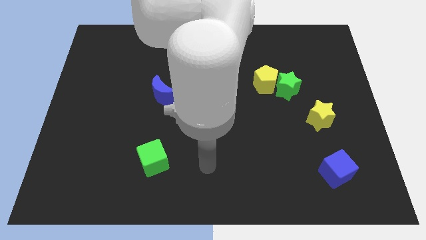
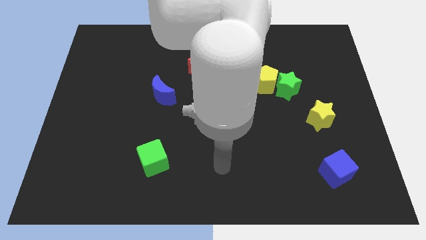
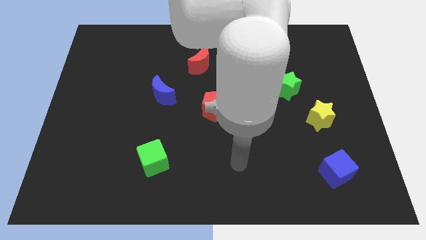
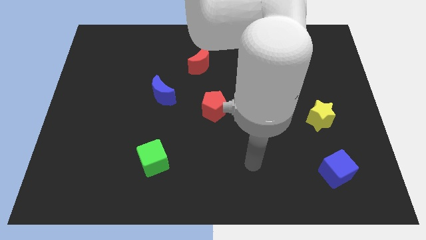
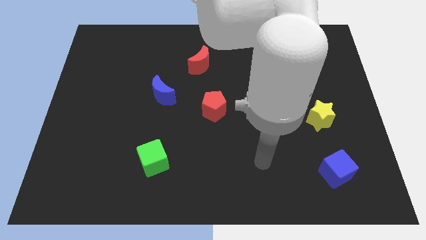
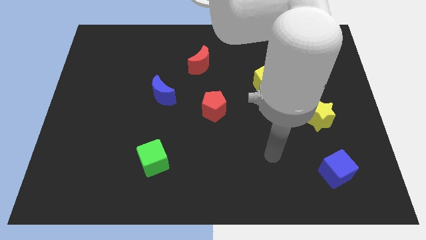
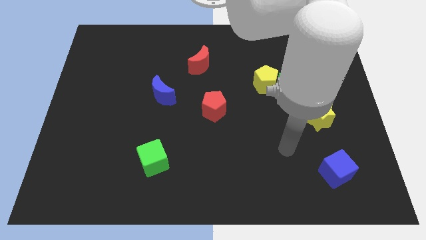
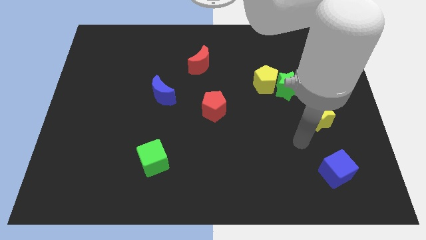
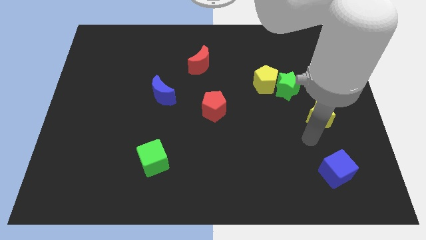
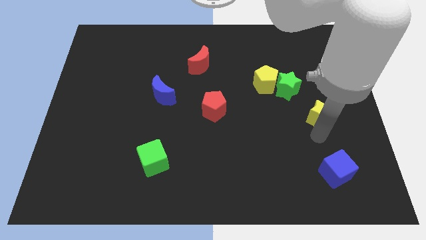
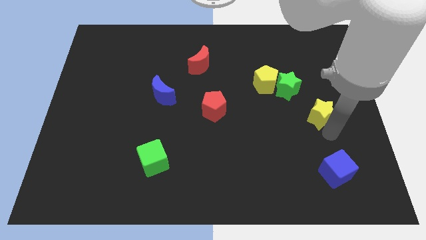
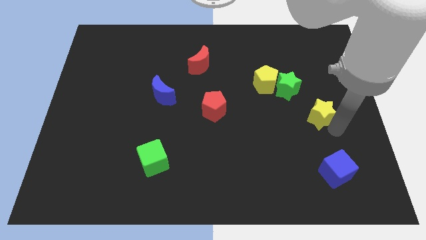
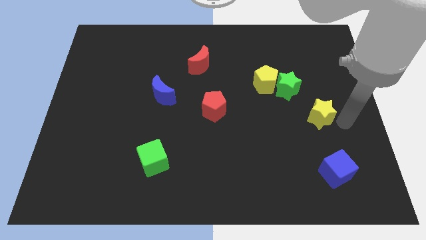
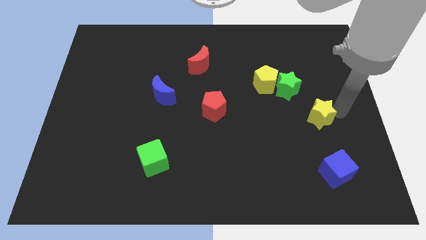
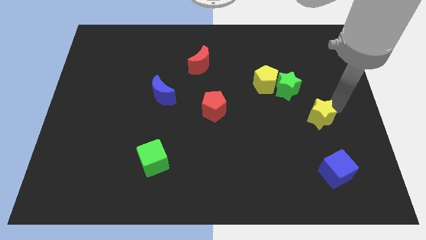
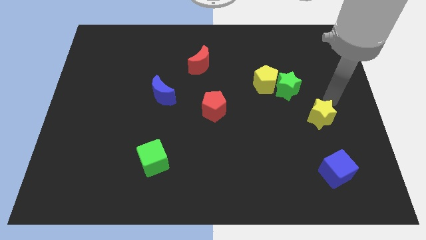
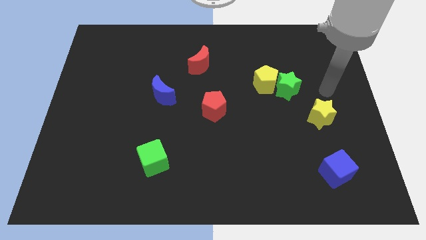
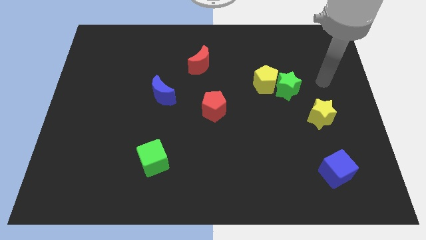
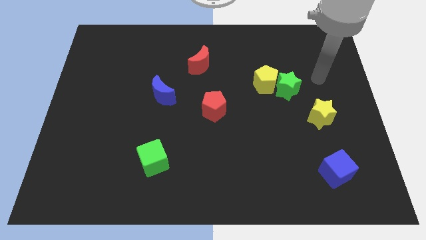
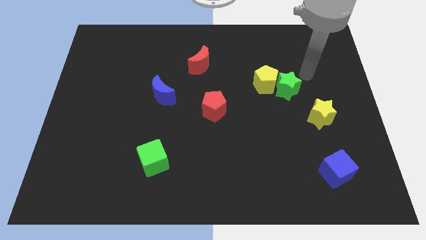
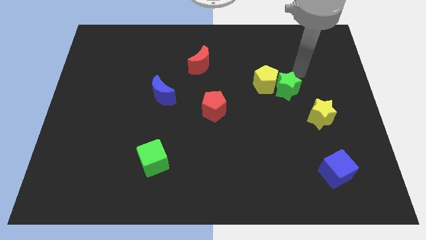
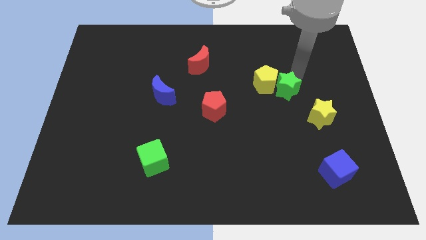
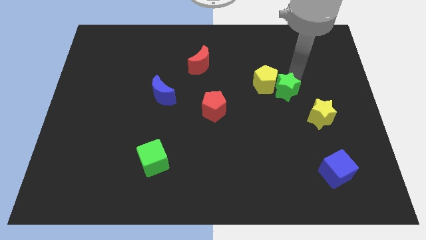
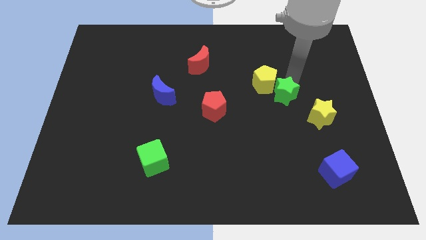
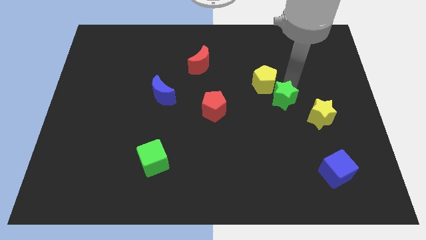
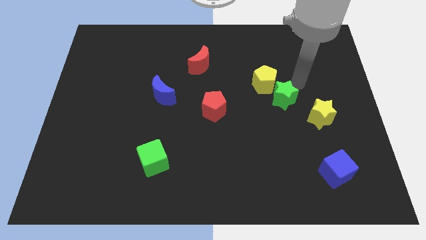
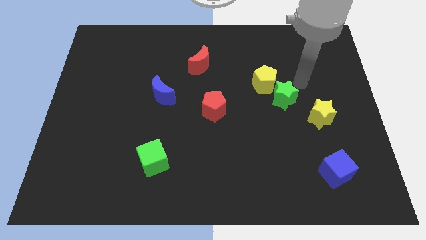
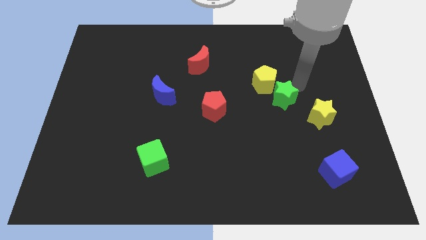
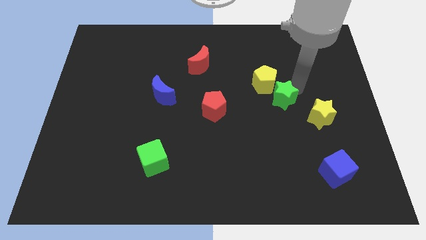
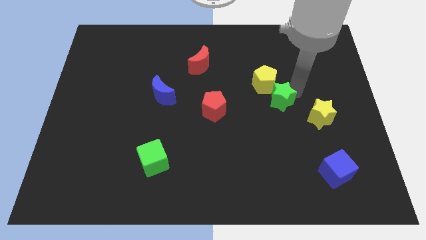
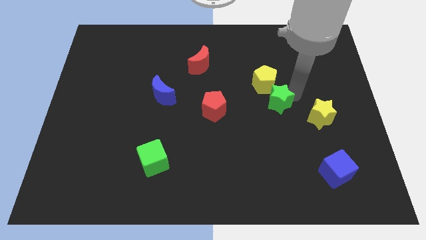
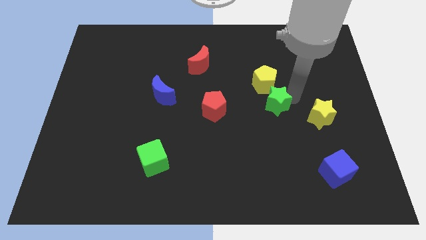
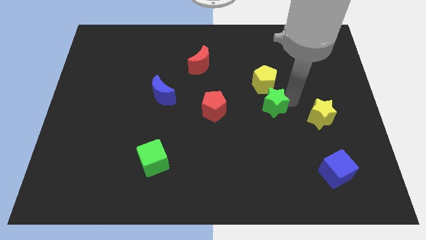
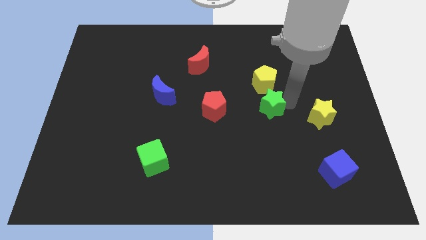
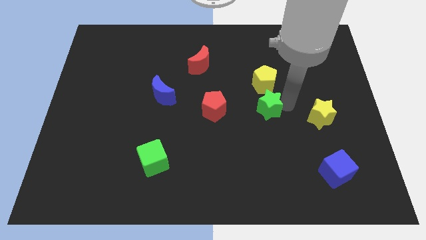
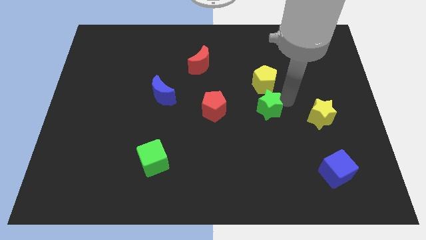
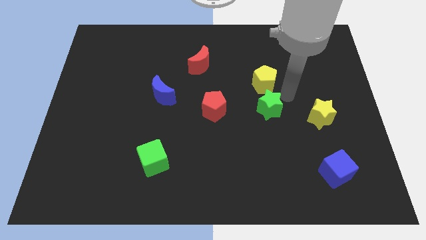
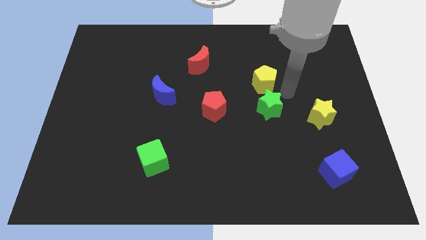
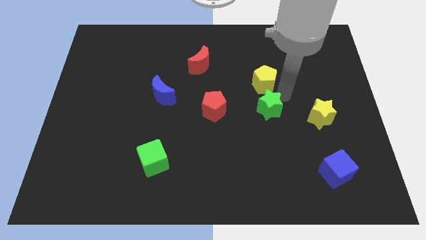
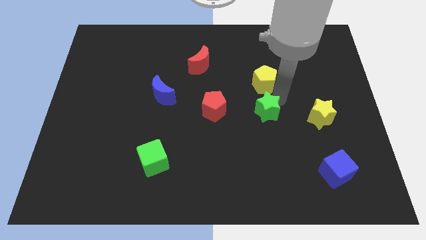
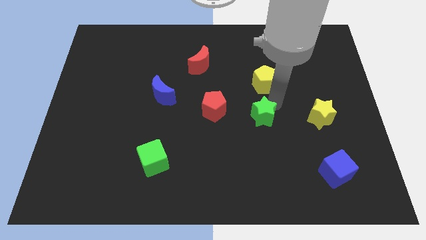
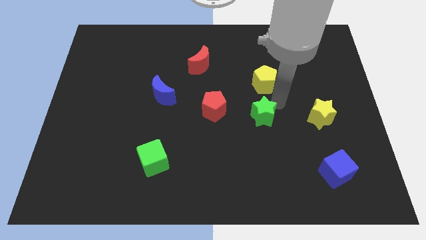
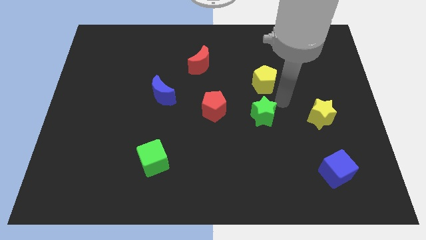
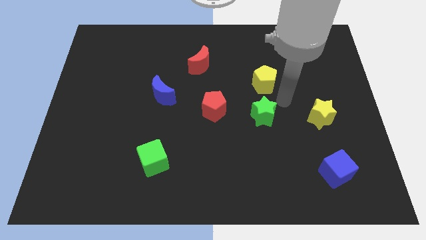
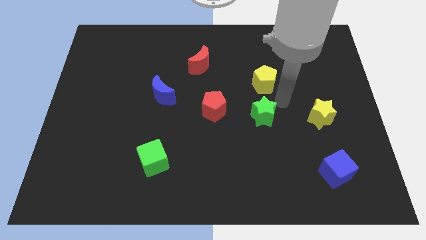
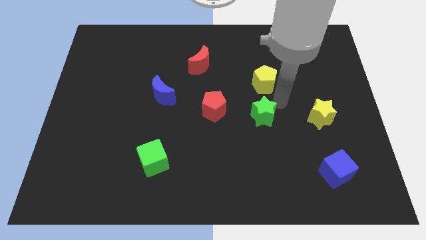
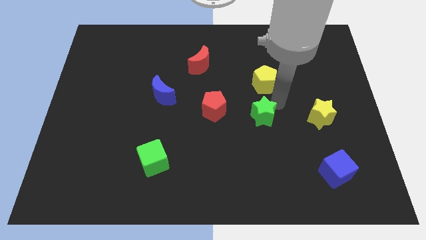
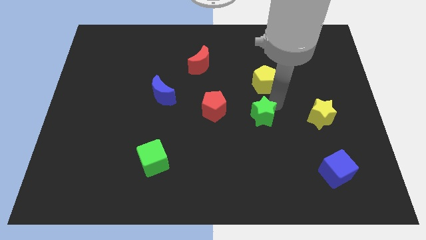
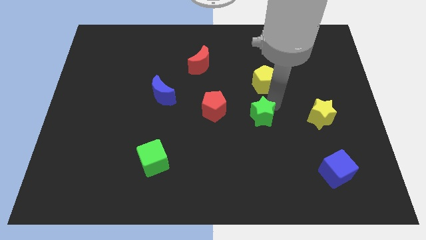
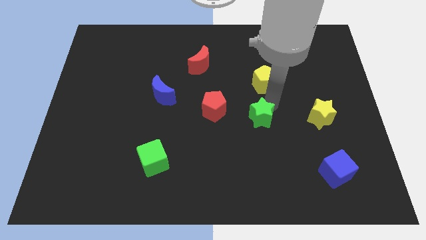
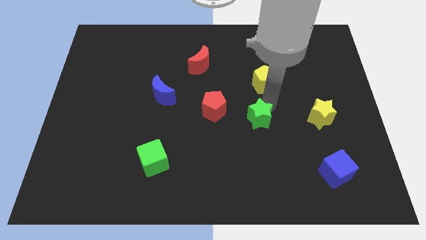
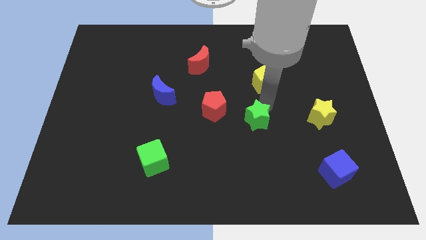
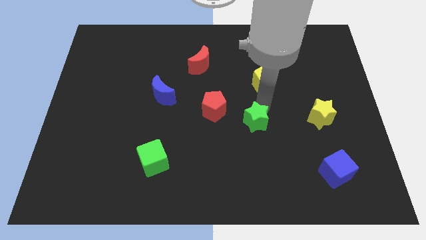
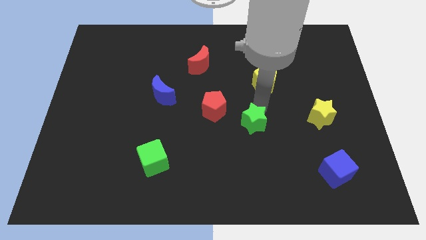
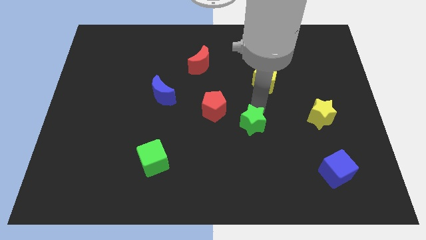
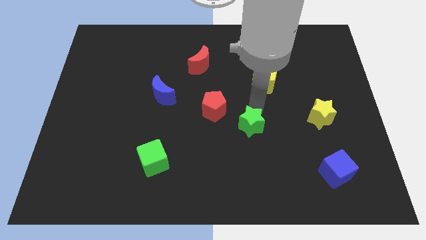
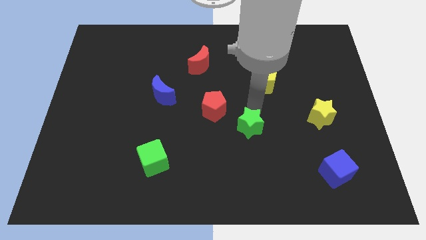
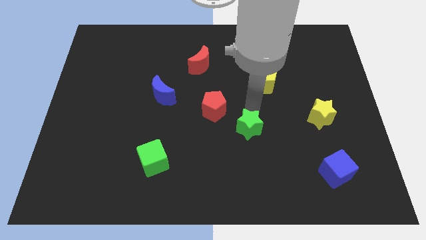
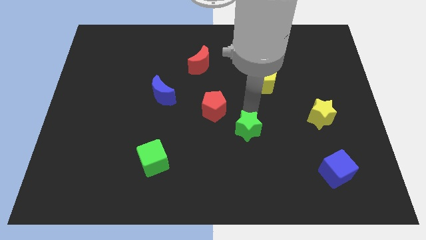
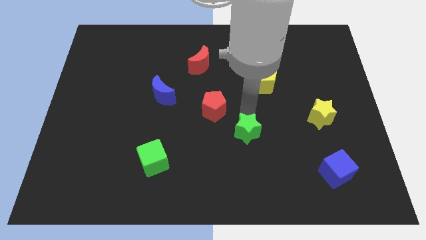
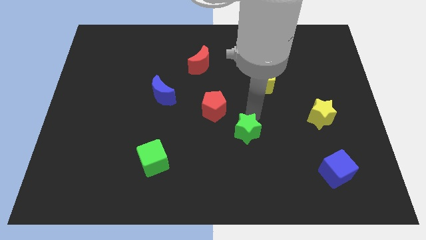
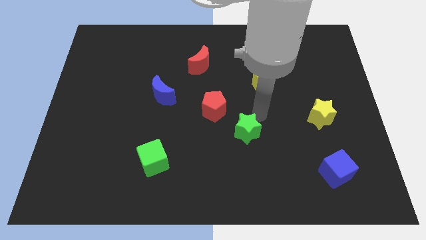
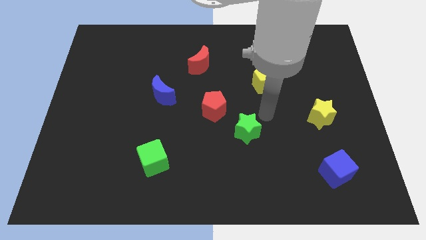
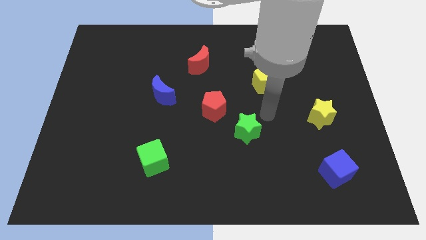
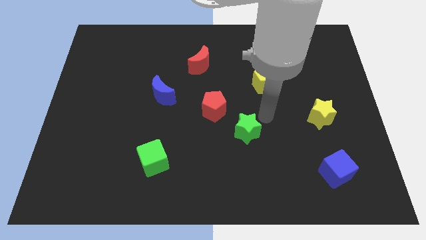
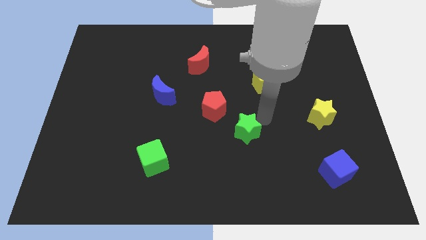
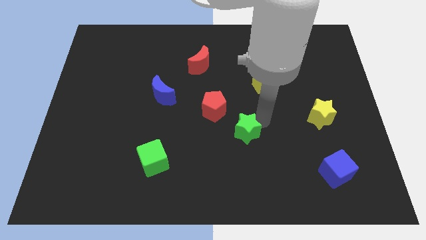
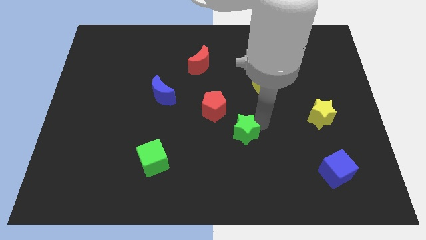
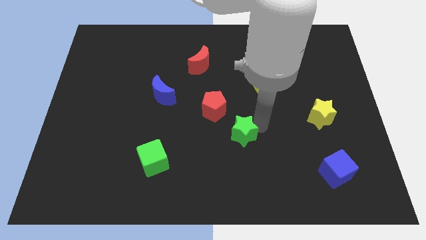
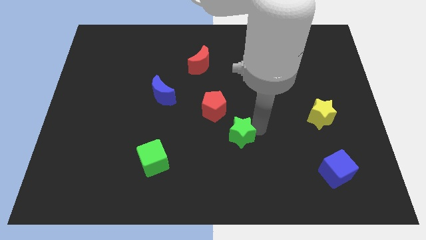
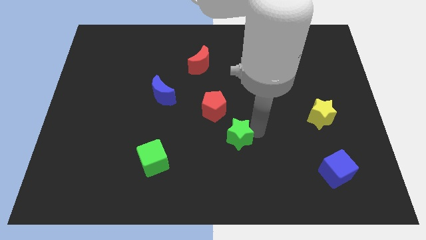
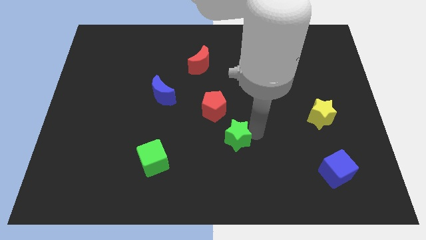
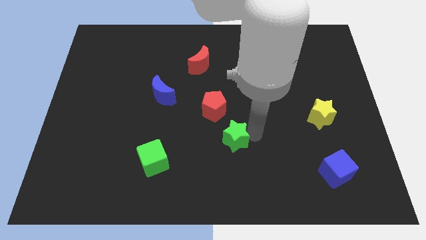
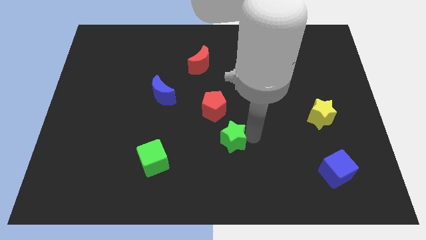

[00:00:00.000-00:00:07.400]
slide the green star diagonally down and to the left

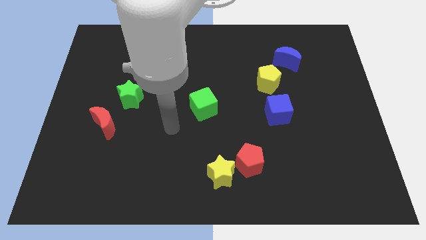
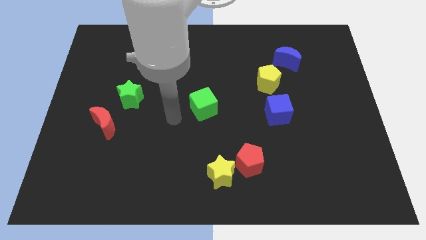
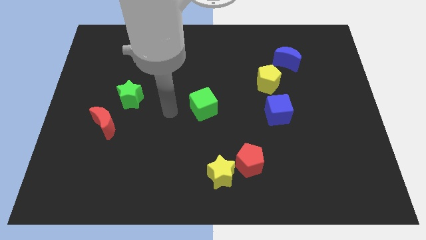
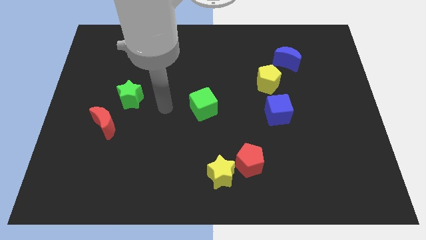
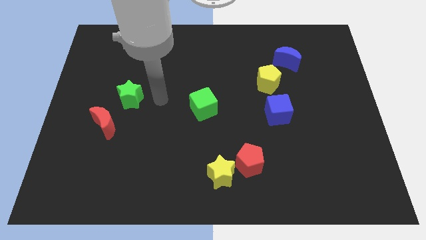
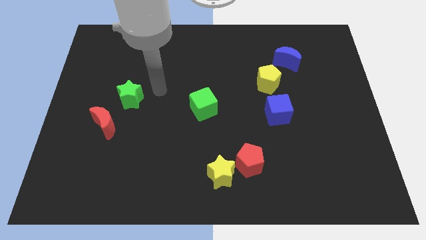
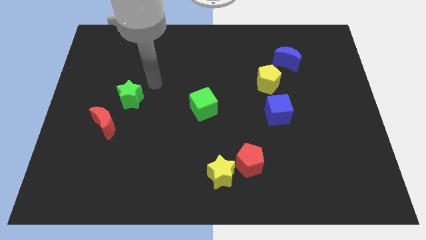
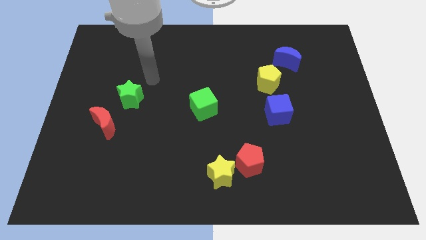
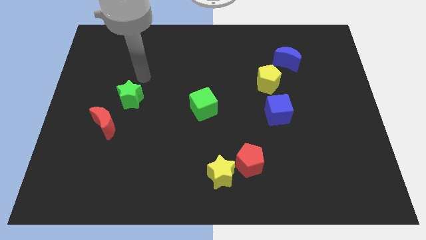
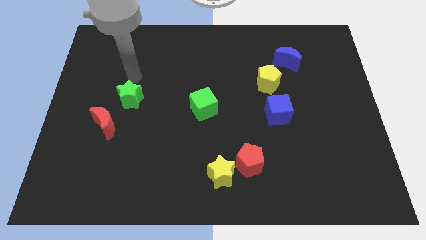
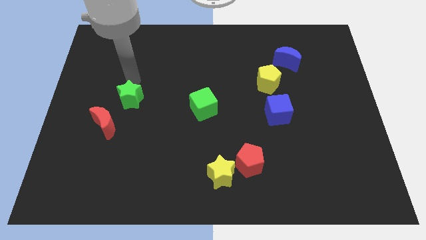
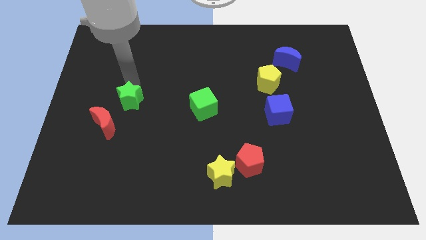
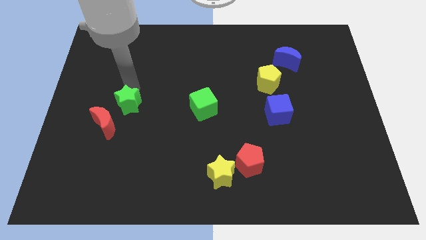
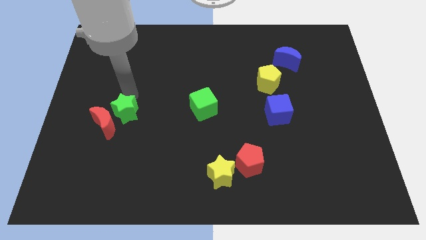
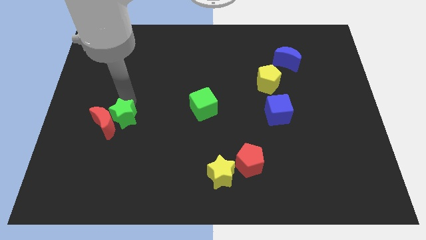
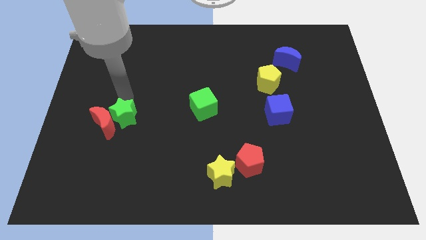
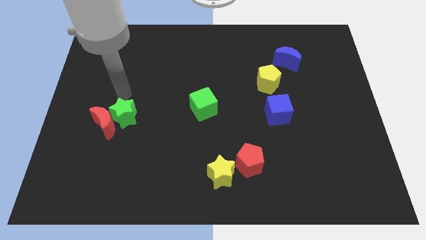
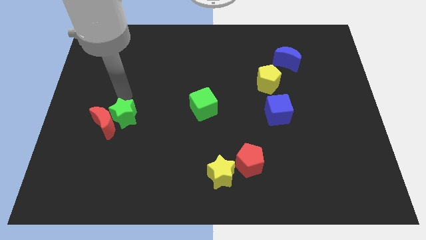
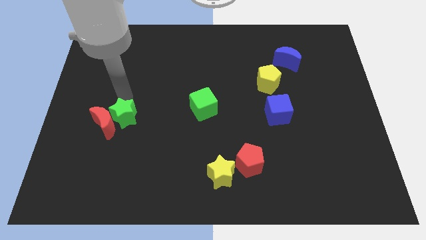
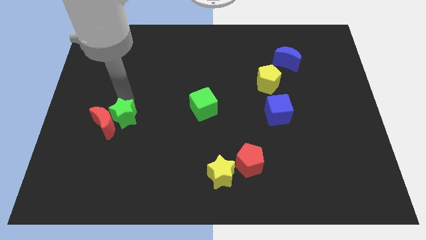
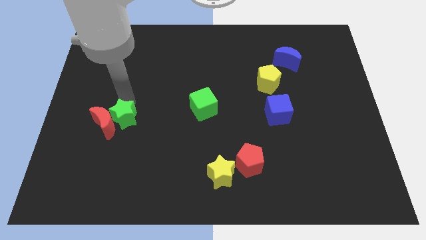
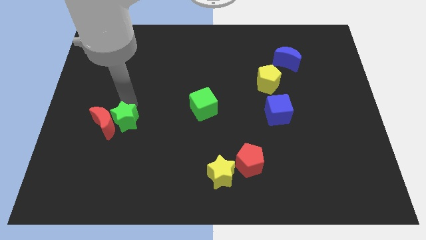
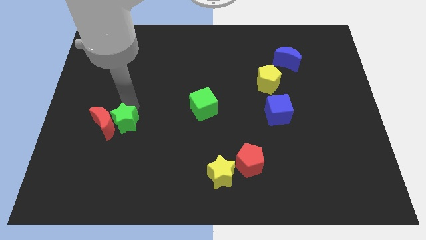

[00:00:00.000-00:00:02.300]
slightly move the green star down
